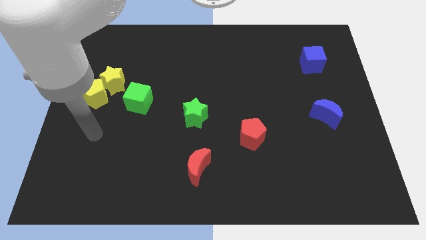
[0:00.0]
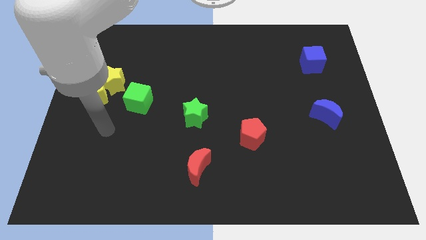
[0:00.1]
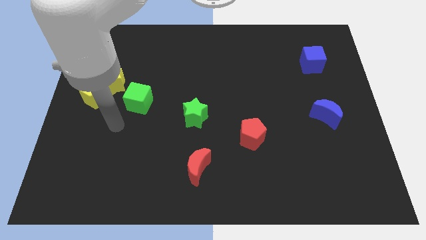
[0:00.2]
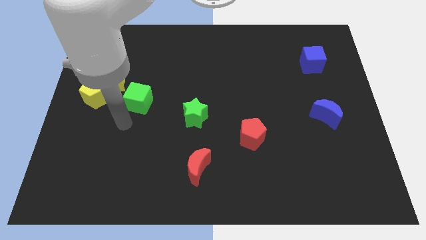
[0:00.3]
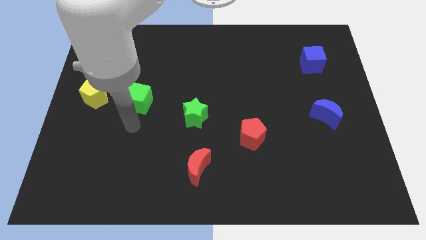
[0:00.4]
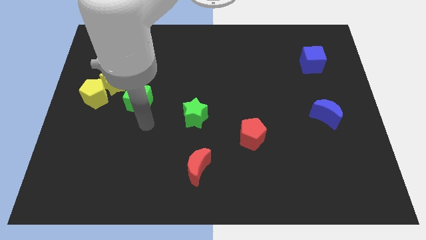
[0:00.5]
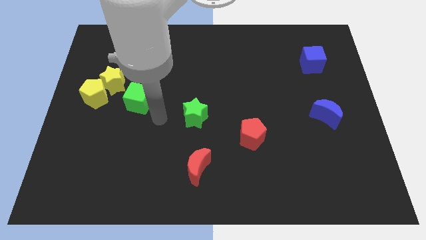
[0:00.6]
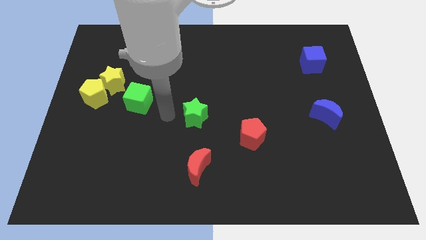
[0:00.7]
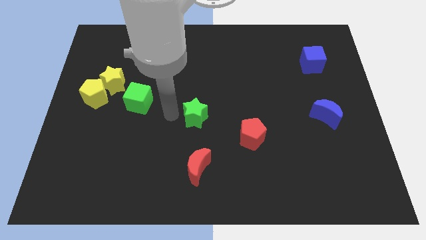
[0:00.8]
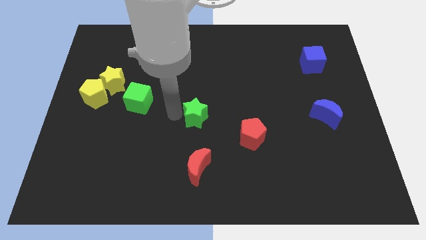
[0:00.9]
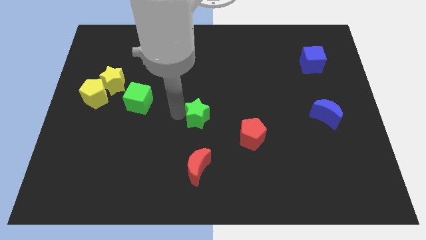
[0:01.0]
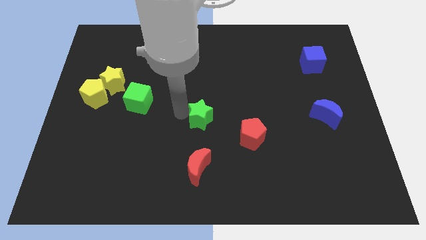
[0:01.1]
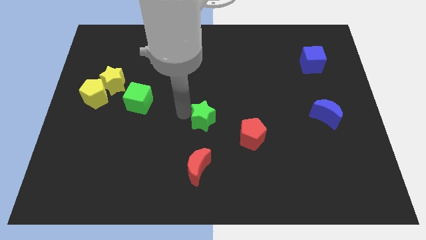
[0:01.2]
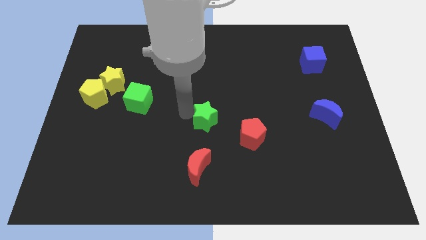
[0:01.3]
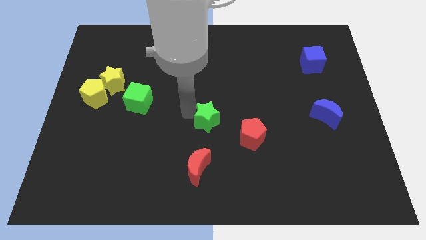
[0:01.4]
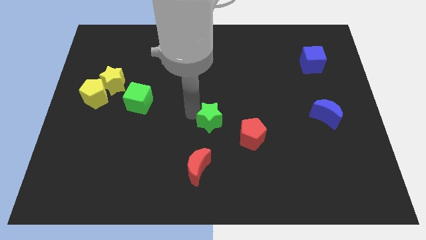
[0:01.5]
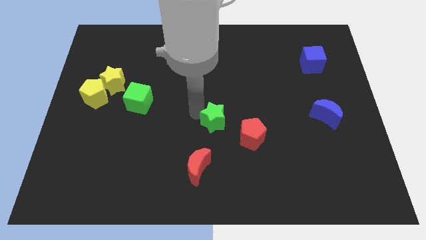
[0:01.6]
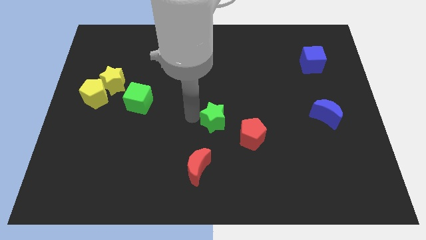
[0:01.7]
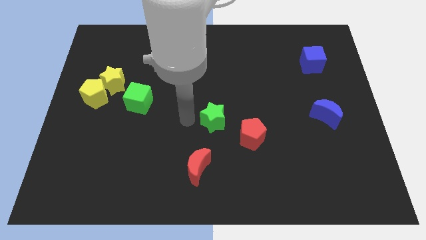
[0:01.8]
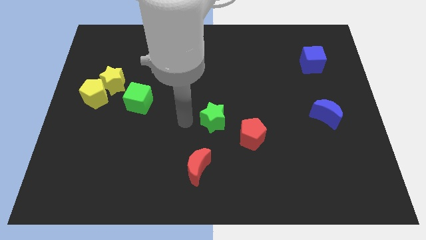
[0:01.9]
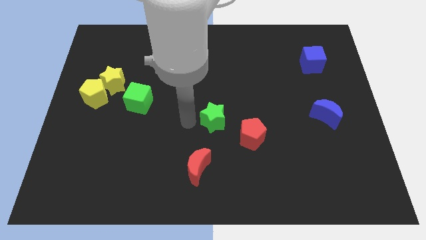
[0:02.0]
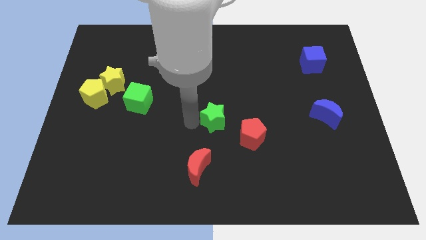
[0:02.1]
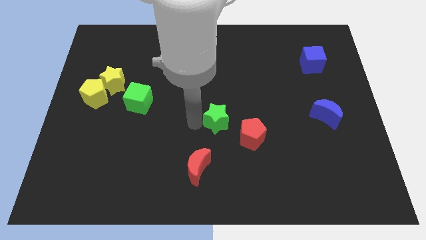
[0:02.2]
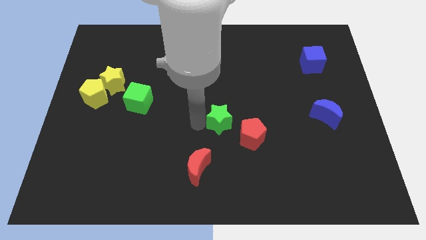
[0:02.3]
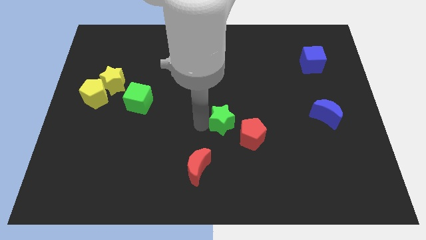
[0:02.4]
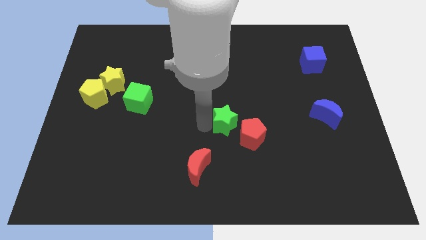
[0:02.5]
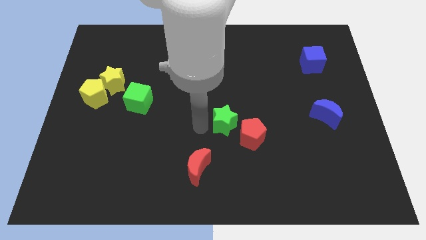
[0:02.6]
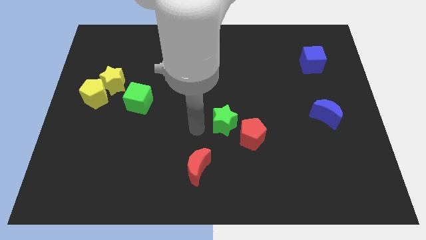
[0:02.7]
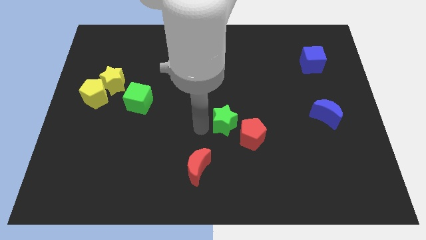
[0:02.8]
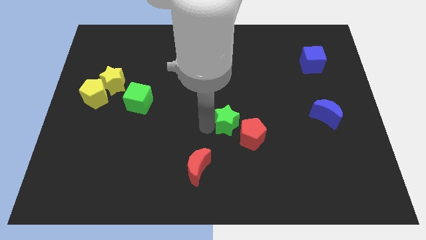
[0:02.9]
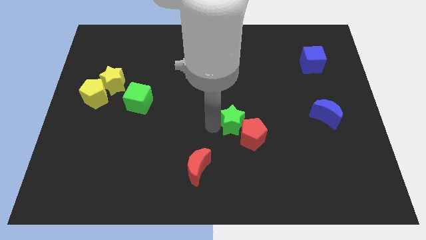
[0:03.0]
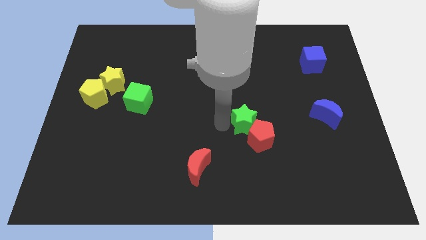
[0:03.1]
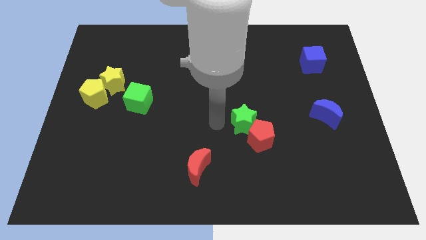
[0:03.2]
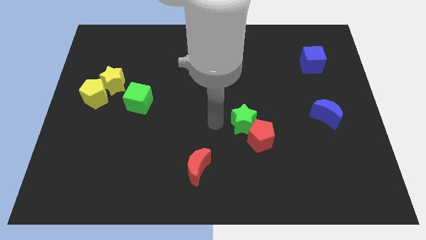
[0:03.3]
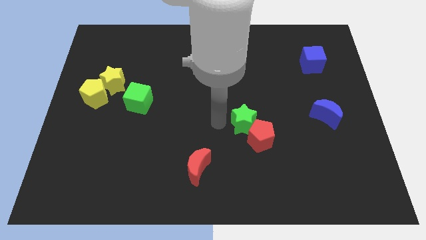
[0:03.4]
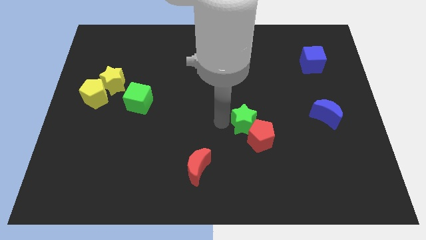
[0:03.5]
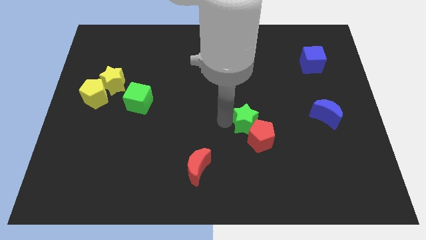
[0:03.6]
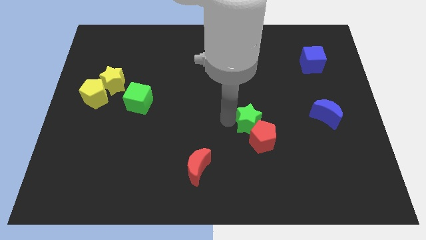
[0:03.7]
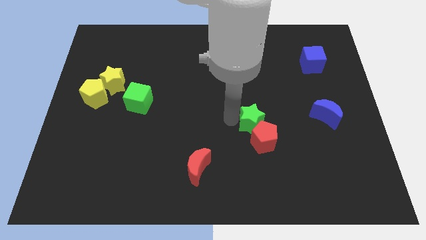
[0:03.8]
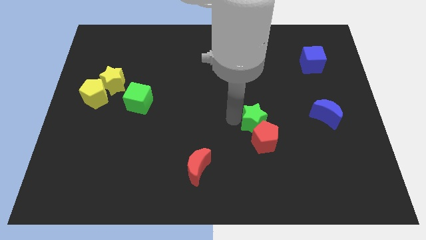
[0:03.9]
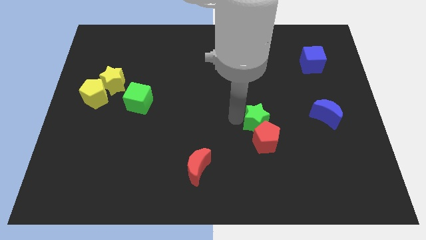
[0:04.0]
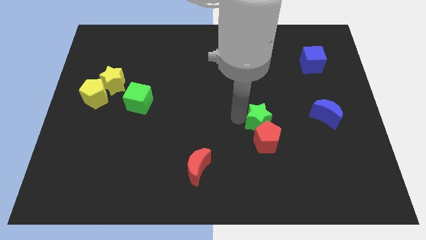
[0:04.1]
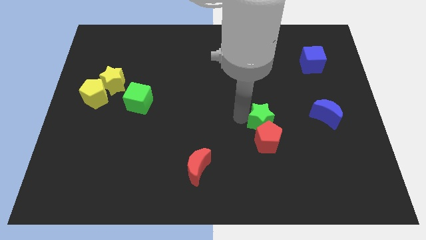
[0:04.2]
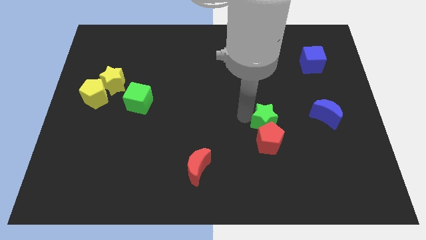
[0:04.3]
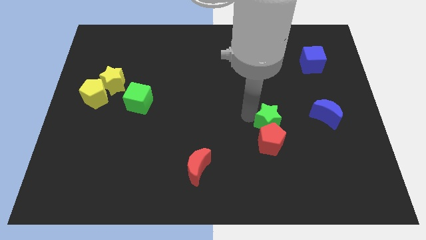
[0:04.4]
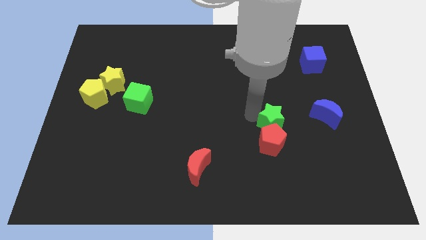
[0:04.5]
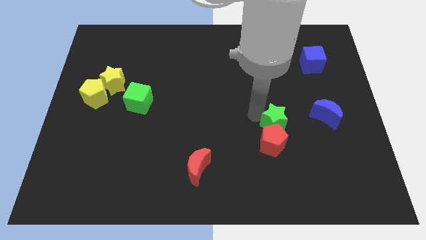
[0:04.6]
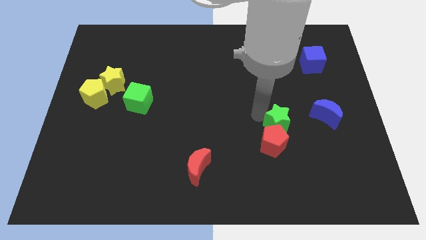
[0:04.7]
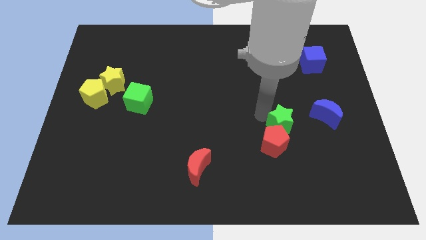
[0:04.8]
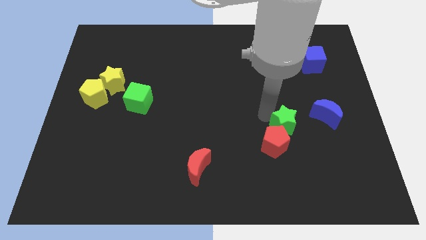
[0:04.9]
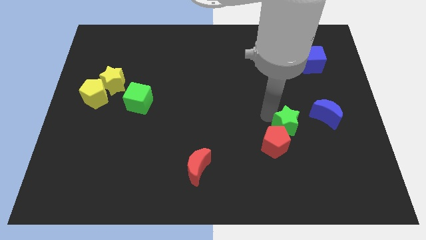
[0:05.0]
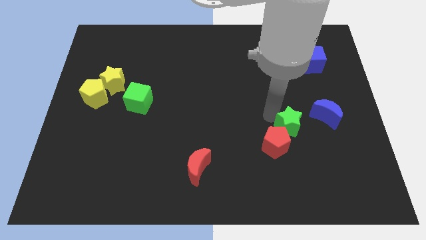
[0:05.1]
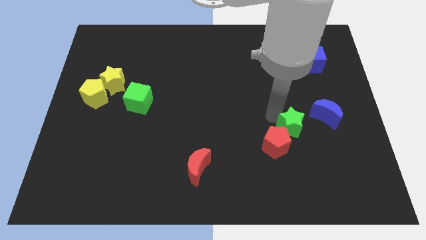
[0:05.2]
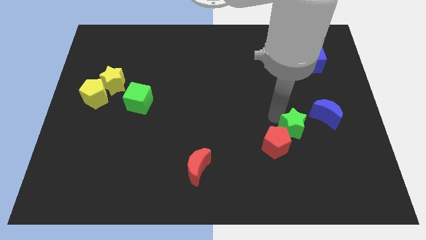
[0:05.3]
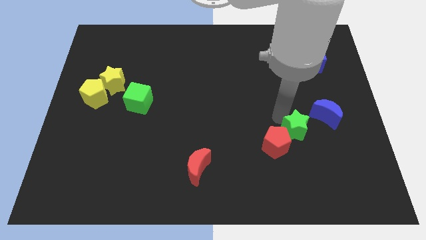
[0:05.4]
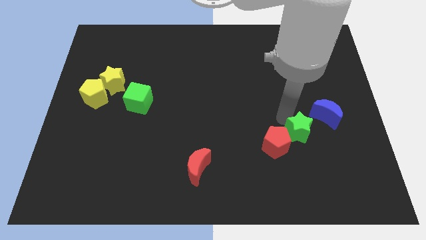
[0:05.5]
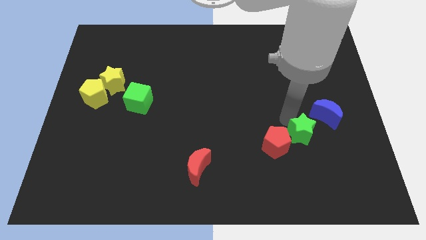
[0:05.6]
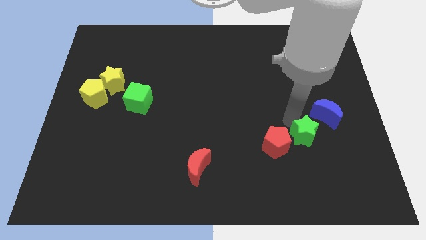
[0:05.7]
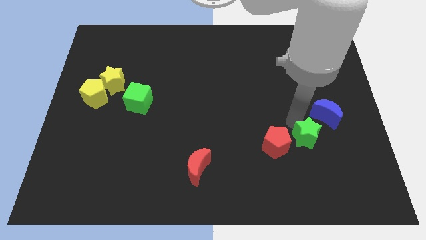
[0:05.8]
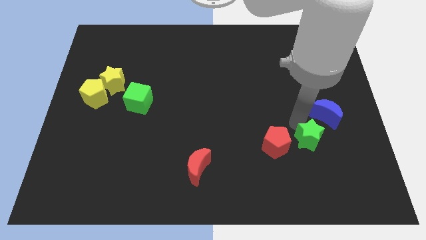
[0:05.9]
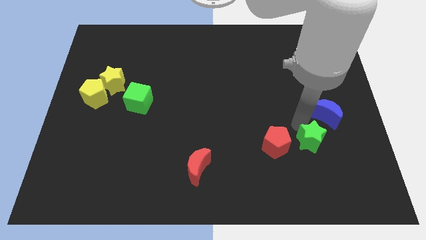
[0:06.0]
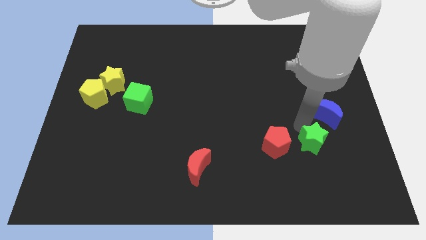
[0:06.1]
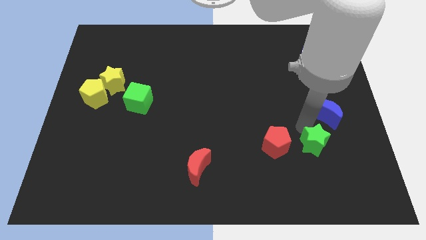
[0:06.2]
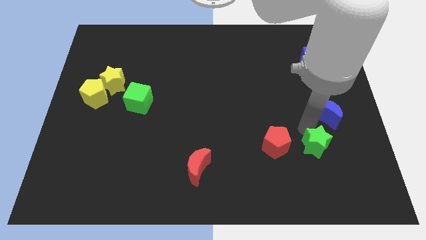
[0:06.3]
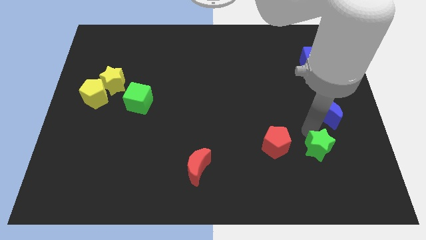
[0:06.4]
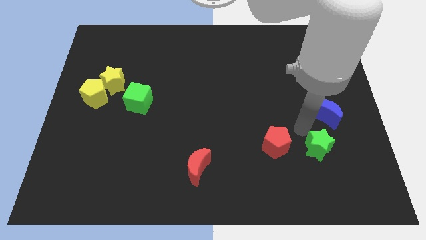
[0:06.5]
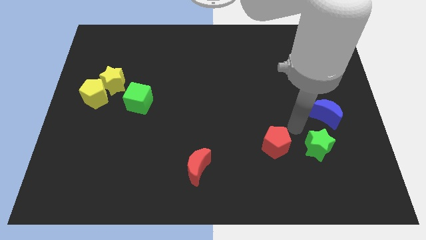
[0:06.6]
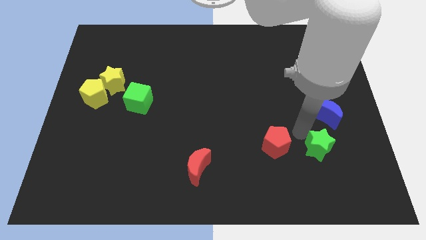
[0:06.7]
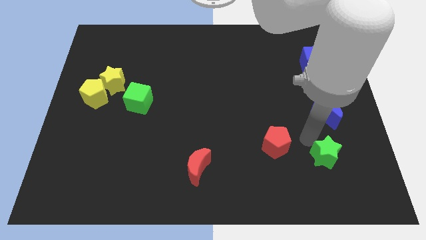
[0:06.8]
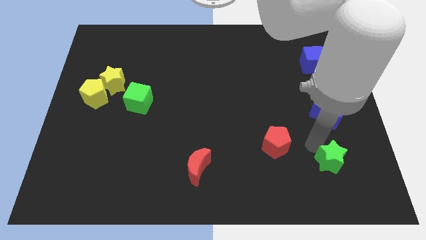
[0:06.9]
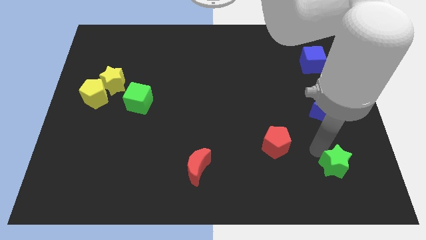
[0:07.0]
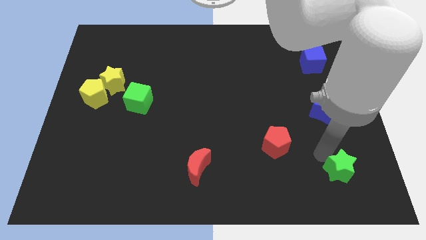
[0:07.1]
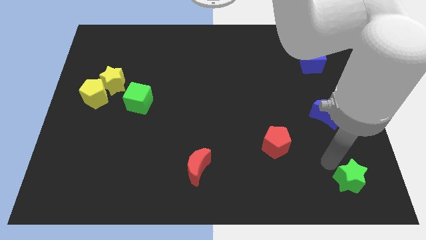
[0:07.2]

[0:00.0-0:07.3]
put the green star to the lower right corner
